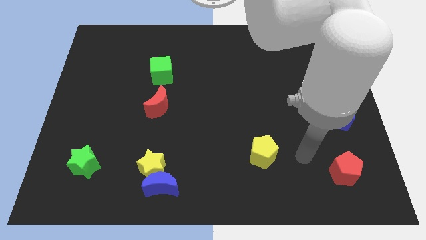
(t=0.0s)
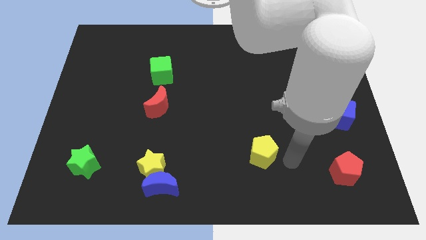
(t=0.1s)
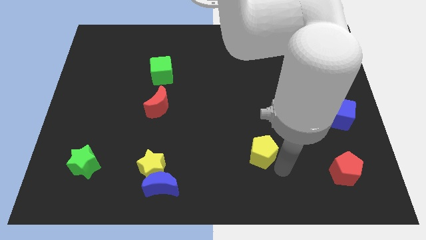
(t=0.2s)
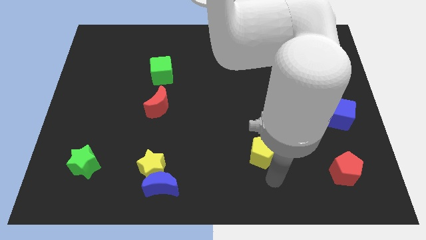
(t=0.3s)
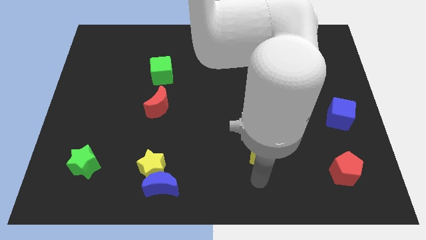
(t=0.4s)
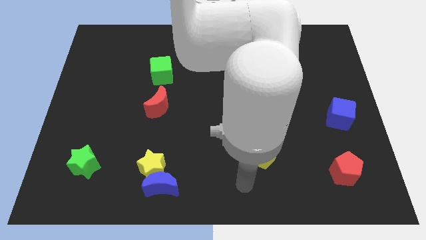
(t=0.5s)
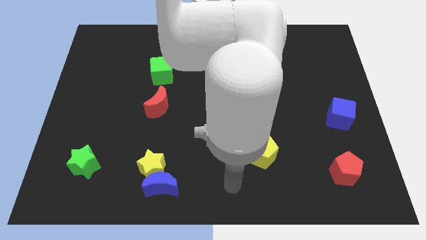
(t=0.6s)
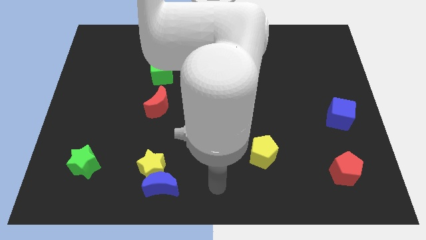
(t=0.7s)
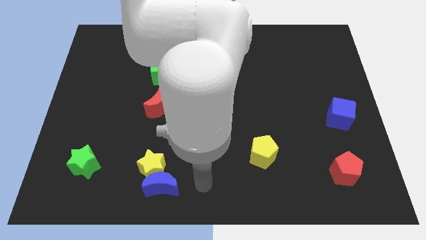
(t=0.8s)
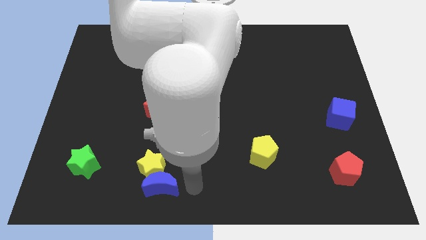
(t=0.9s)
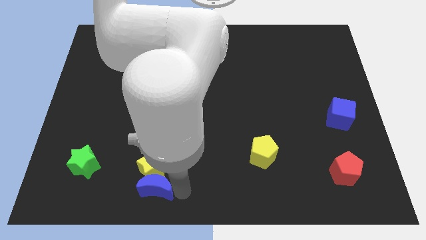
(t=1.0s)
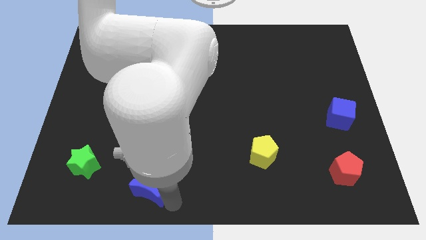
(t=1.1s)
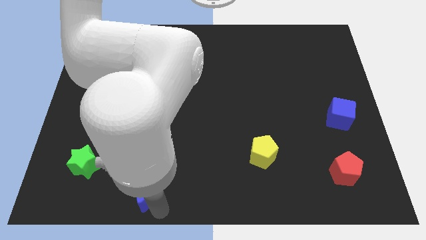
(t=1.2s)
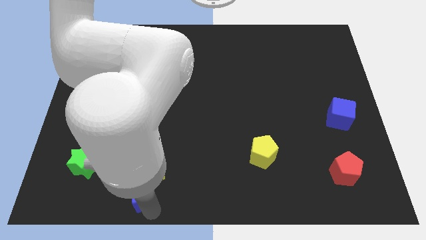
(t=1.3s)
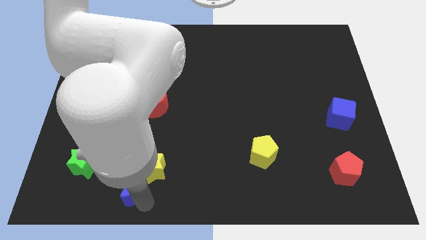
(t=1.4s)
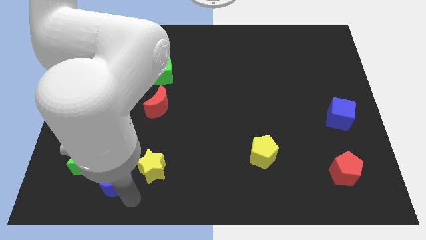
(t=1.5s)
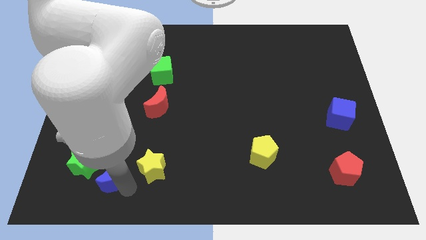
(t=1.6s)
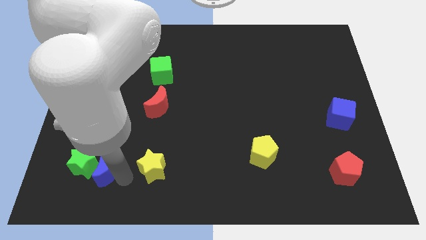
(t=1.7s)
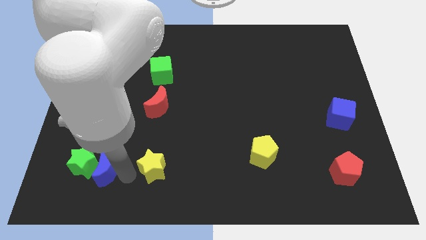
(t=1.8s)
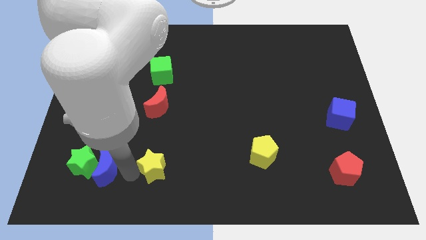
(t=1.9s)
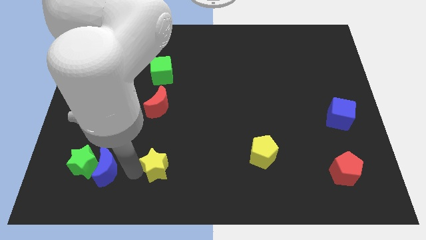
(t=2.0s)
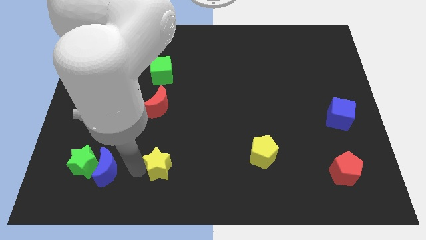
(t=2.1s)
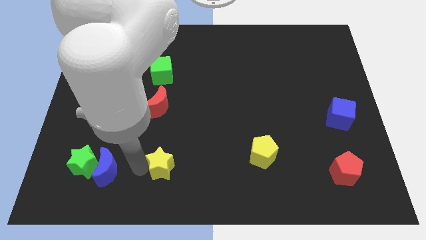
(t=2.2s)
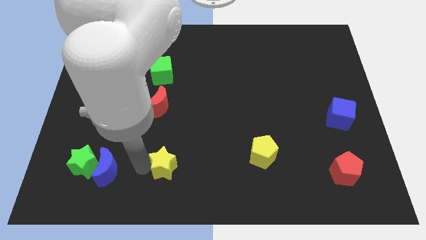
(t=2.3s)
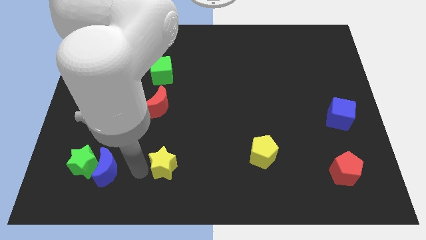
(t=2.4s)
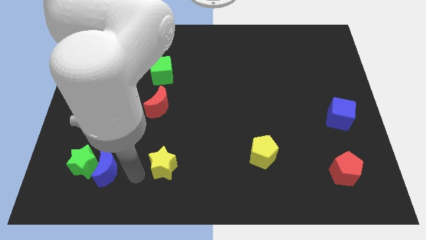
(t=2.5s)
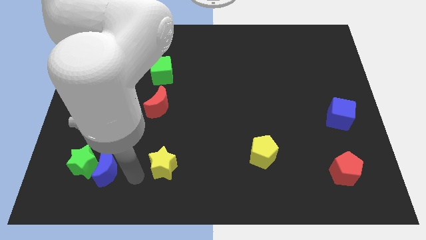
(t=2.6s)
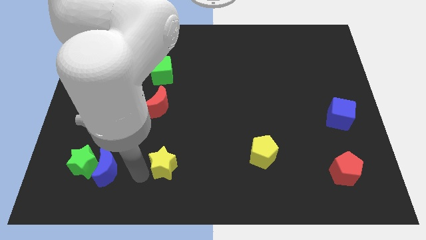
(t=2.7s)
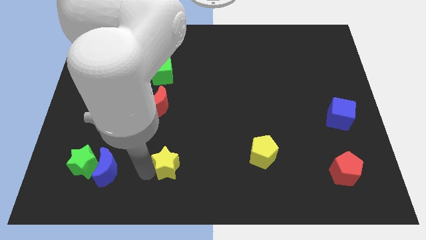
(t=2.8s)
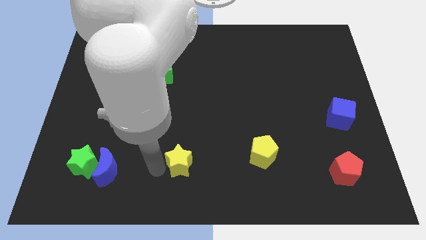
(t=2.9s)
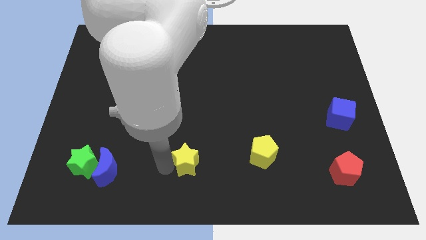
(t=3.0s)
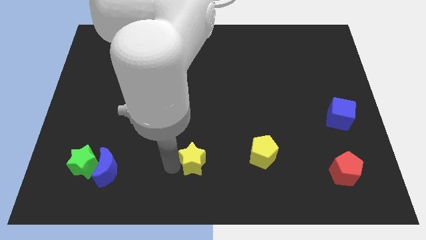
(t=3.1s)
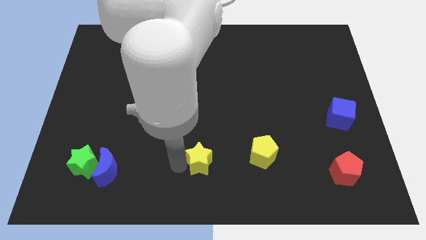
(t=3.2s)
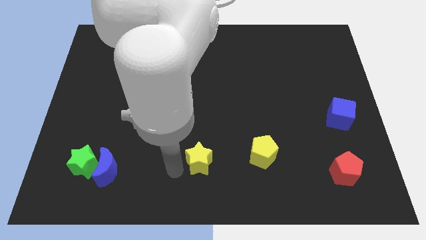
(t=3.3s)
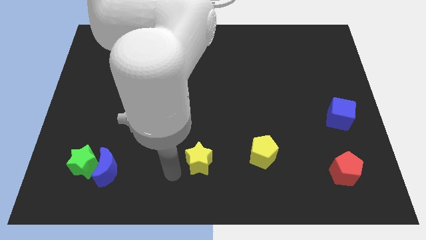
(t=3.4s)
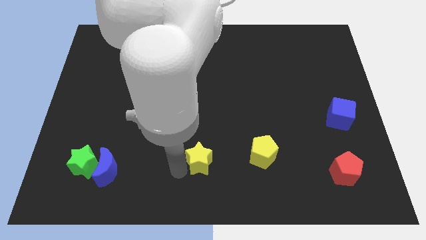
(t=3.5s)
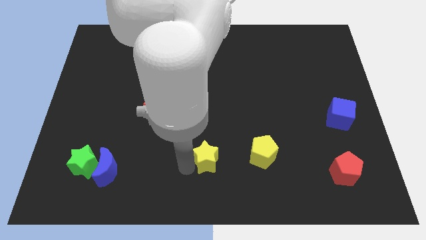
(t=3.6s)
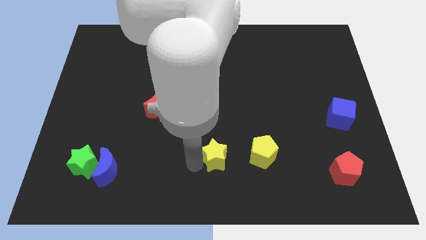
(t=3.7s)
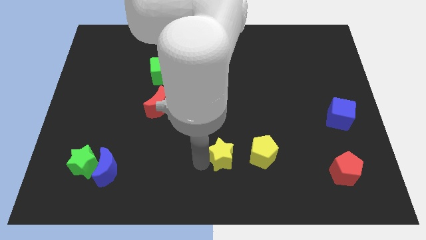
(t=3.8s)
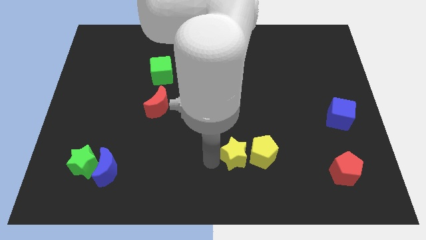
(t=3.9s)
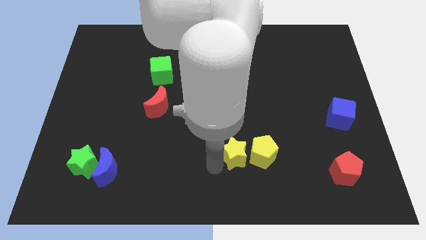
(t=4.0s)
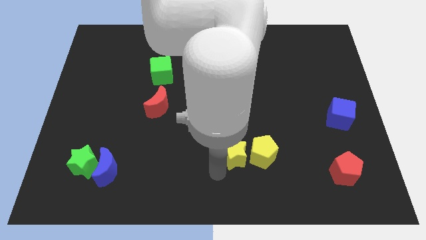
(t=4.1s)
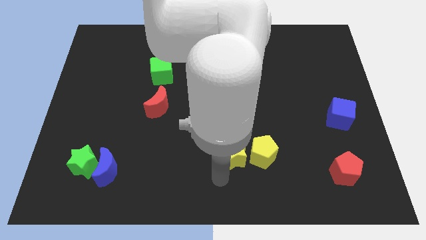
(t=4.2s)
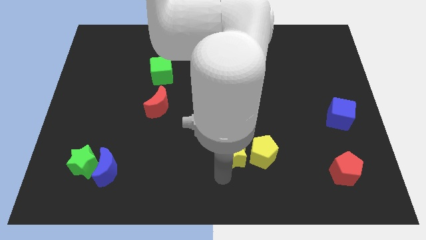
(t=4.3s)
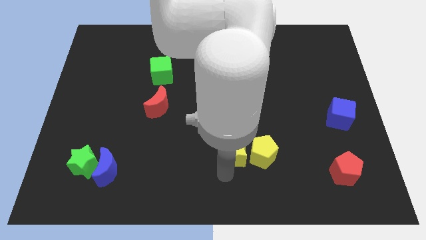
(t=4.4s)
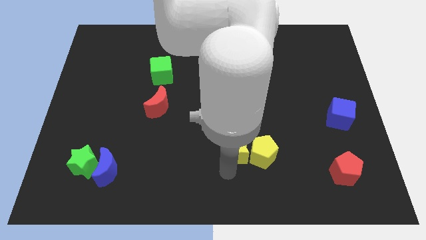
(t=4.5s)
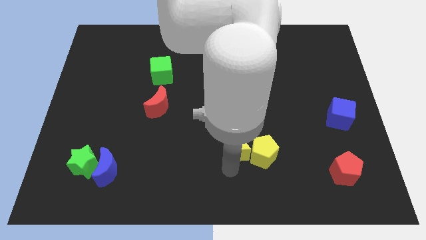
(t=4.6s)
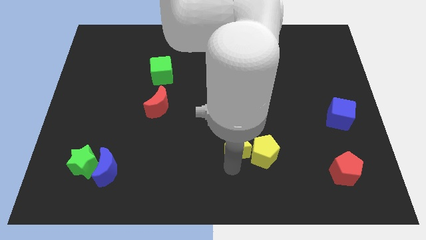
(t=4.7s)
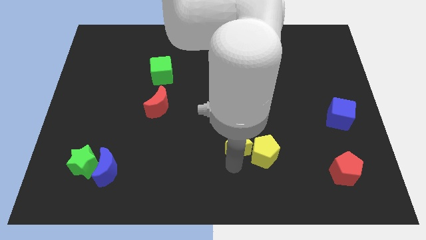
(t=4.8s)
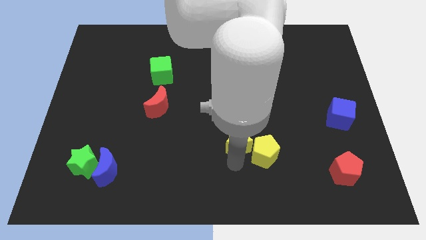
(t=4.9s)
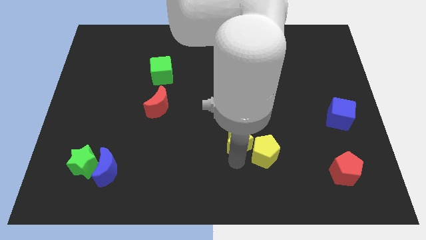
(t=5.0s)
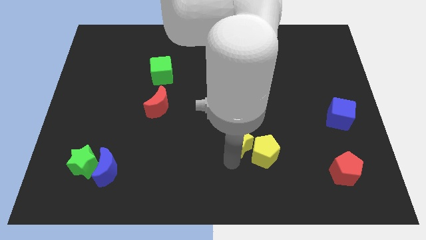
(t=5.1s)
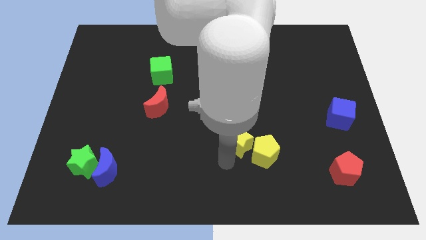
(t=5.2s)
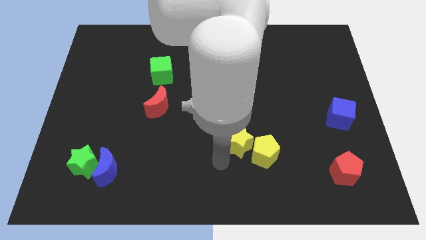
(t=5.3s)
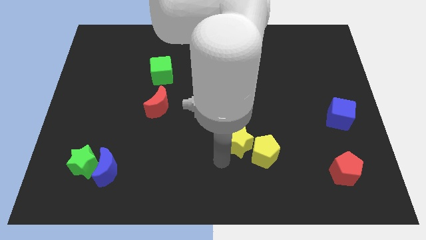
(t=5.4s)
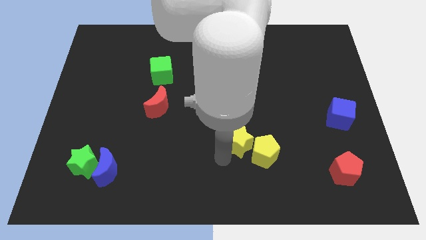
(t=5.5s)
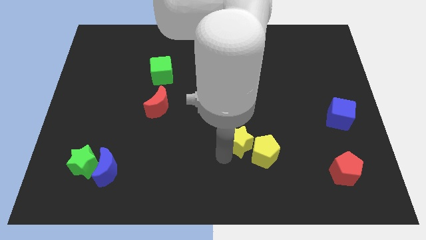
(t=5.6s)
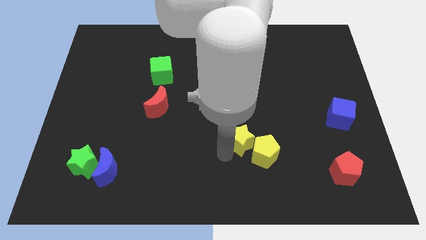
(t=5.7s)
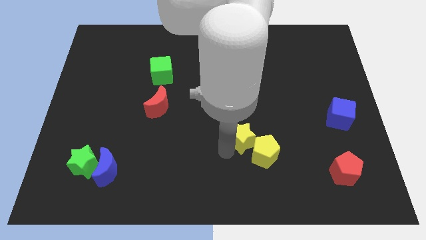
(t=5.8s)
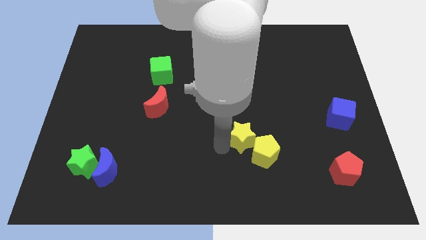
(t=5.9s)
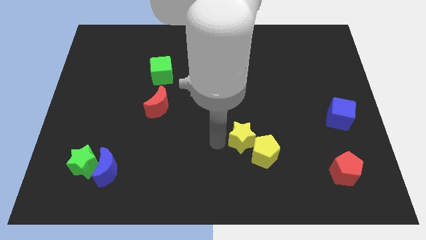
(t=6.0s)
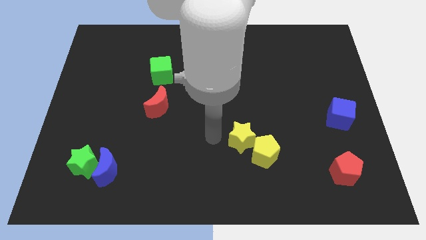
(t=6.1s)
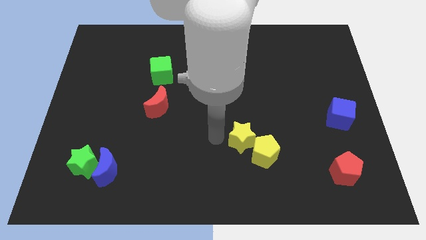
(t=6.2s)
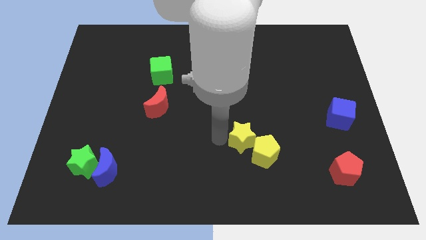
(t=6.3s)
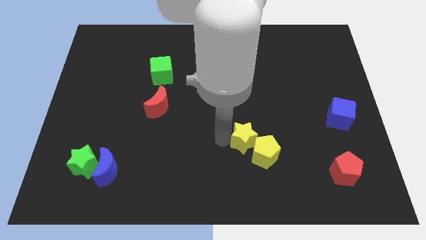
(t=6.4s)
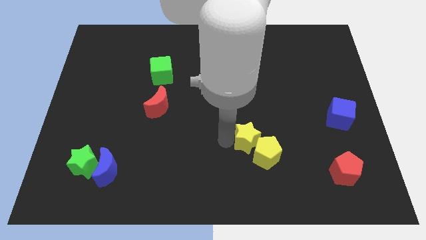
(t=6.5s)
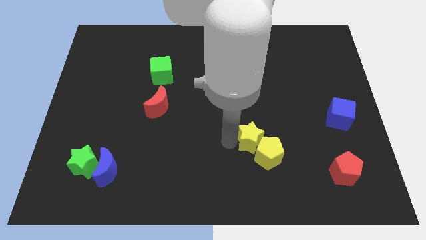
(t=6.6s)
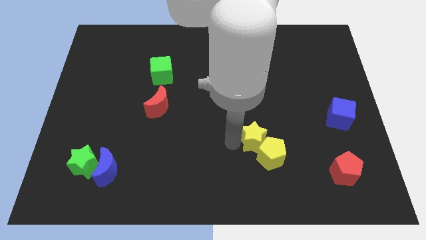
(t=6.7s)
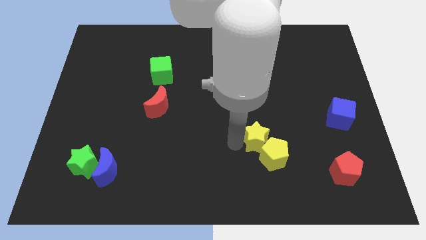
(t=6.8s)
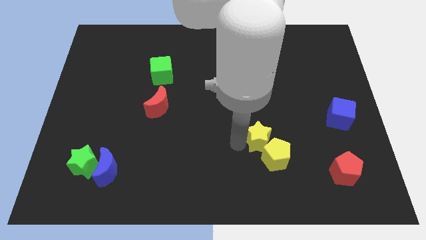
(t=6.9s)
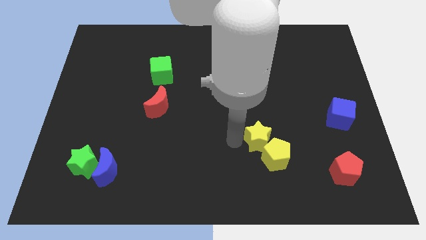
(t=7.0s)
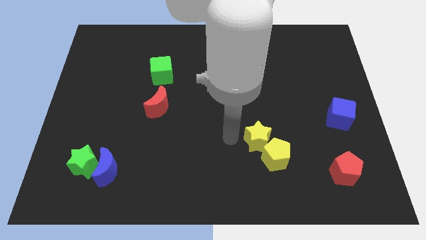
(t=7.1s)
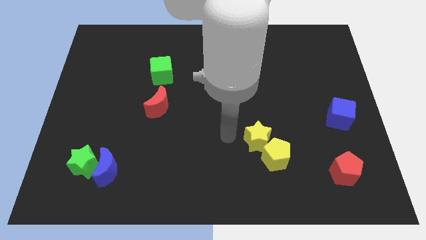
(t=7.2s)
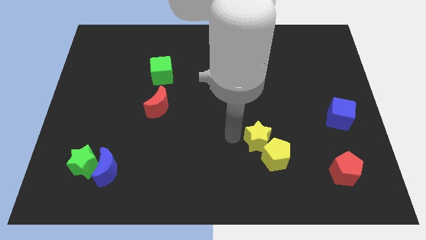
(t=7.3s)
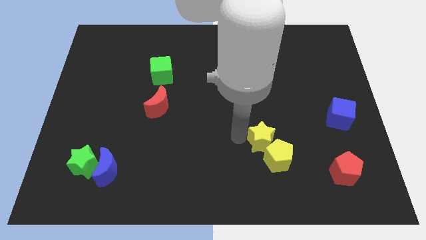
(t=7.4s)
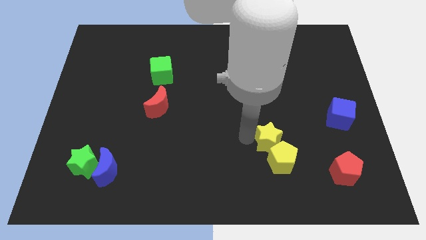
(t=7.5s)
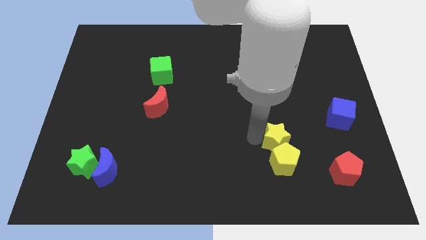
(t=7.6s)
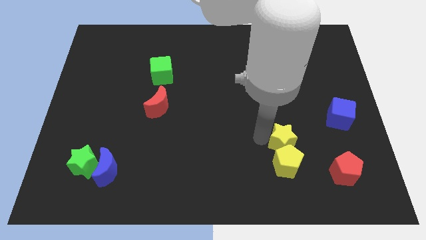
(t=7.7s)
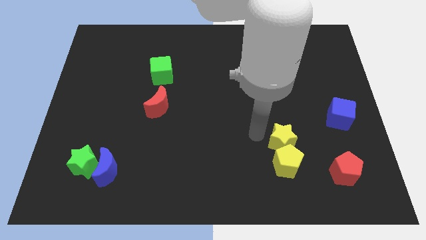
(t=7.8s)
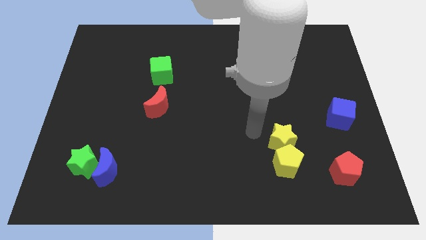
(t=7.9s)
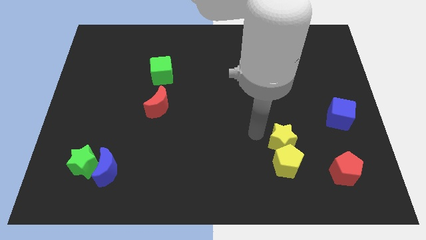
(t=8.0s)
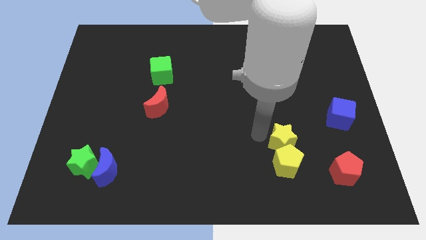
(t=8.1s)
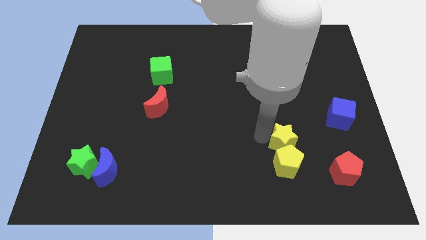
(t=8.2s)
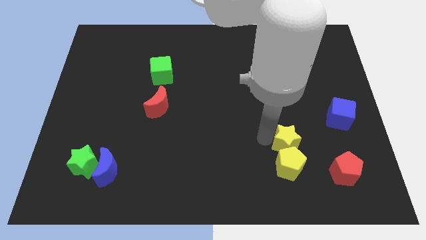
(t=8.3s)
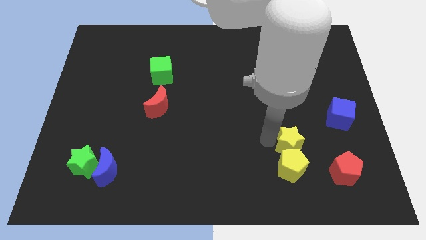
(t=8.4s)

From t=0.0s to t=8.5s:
put the yellow star to the top left side of the red pentagon
